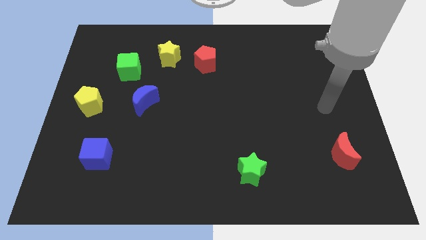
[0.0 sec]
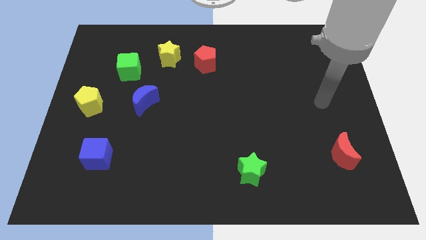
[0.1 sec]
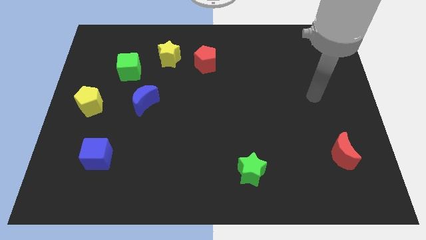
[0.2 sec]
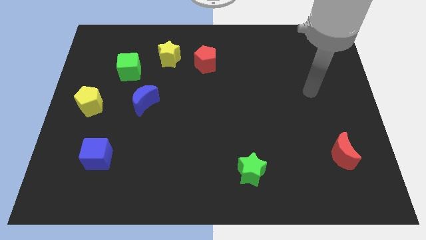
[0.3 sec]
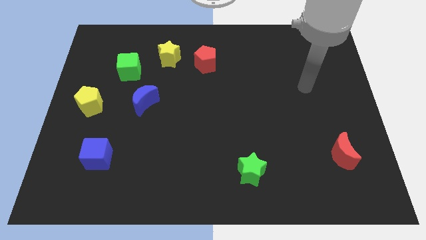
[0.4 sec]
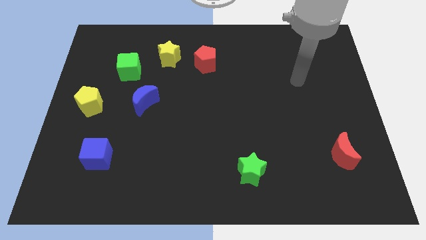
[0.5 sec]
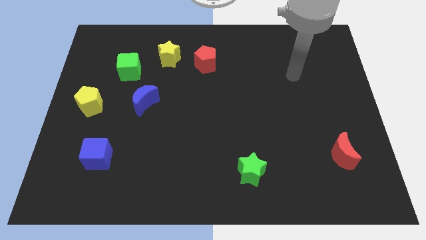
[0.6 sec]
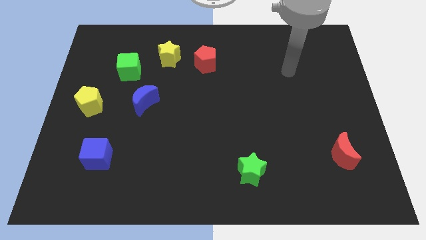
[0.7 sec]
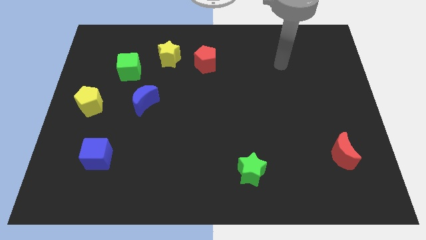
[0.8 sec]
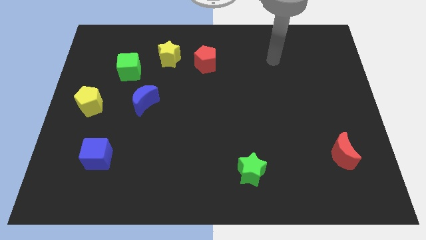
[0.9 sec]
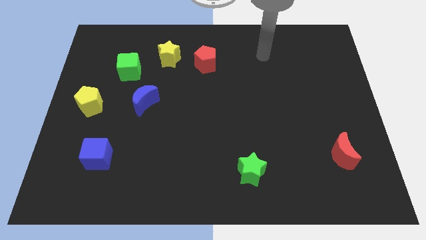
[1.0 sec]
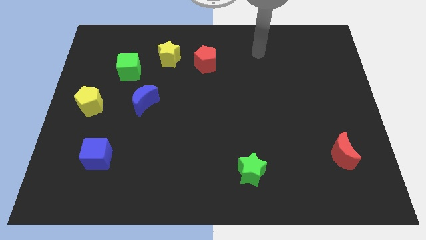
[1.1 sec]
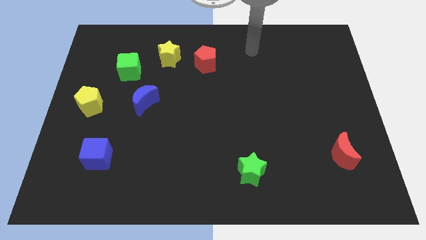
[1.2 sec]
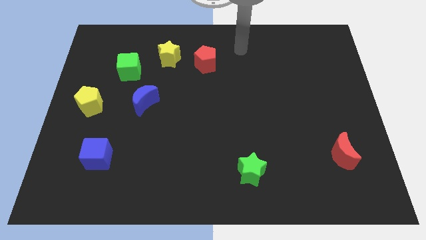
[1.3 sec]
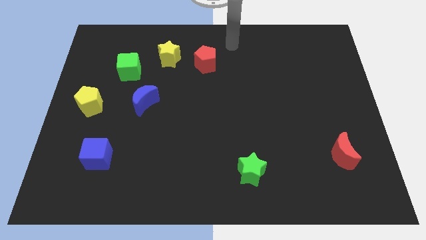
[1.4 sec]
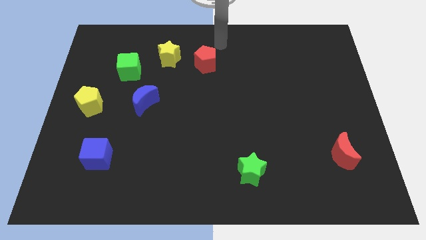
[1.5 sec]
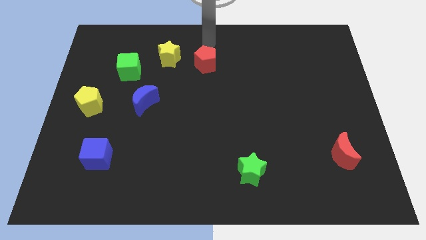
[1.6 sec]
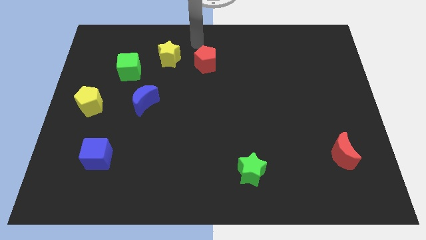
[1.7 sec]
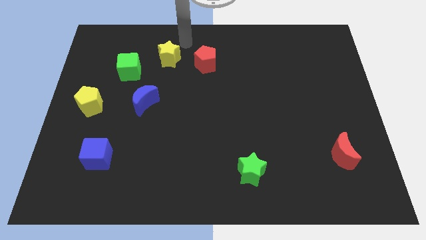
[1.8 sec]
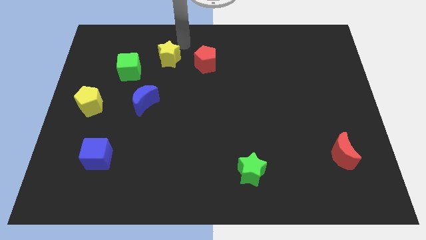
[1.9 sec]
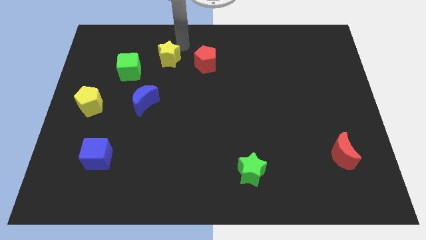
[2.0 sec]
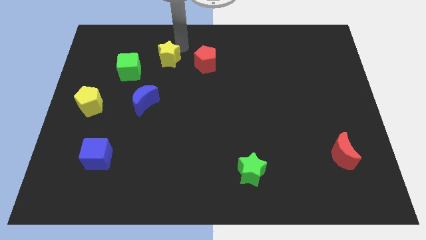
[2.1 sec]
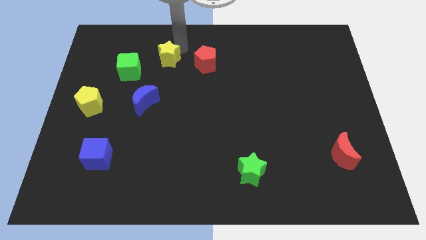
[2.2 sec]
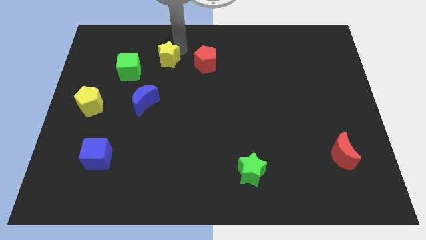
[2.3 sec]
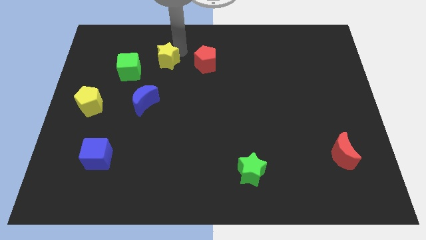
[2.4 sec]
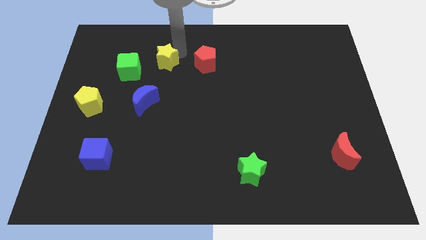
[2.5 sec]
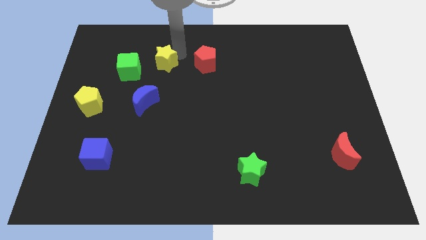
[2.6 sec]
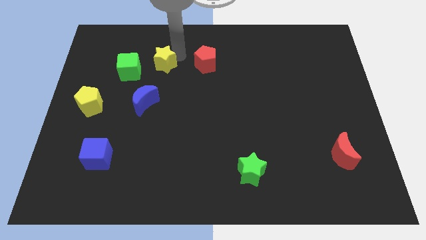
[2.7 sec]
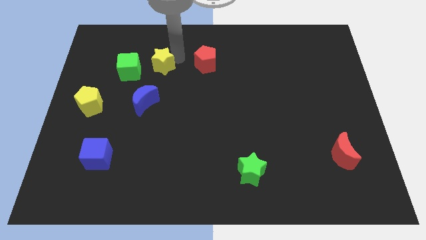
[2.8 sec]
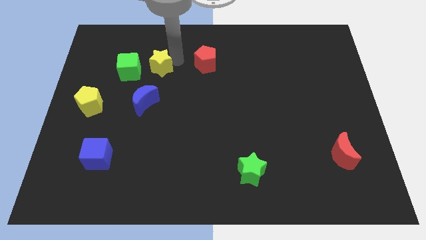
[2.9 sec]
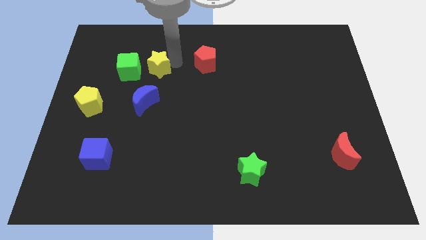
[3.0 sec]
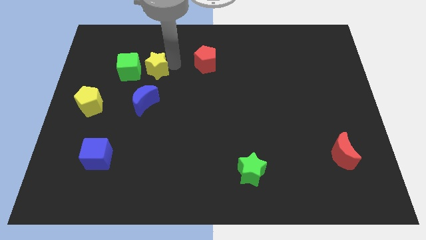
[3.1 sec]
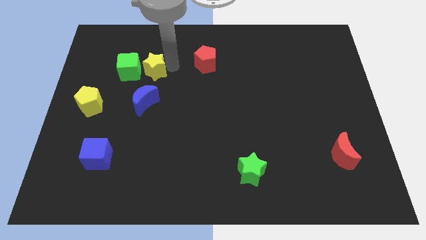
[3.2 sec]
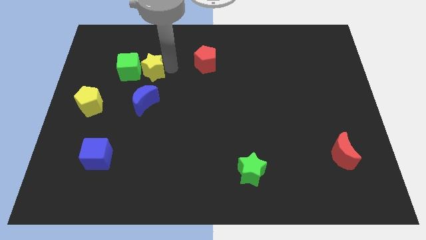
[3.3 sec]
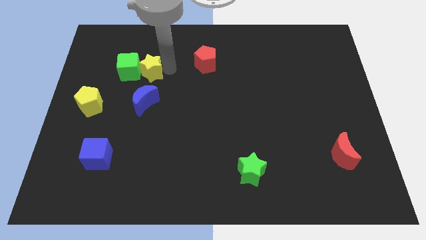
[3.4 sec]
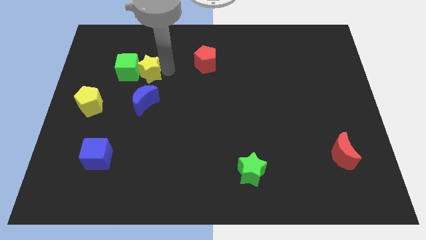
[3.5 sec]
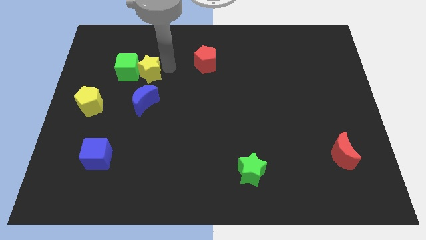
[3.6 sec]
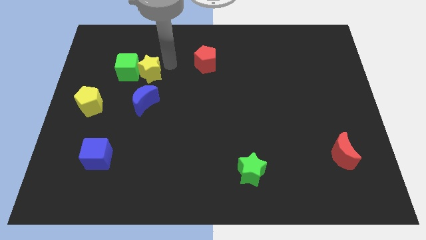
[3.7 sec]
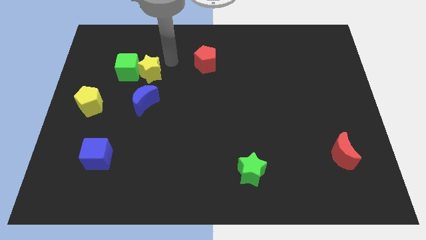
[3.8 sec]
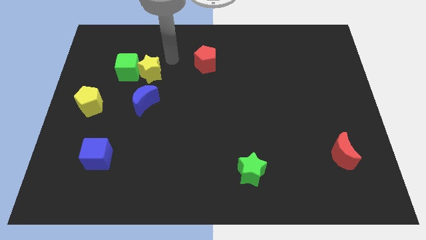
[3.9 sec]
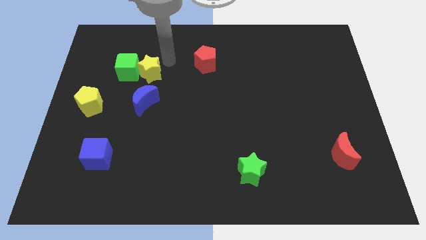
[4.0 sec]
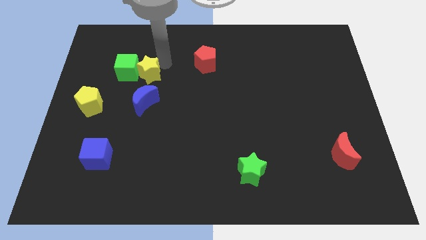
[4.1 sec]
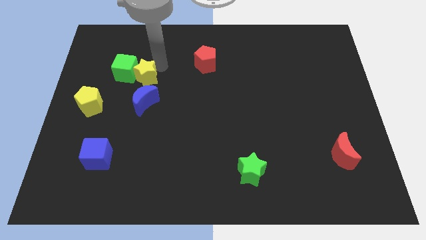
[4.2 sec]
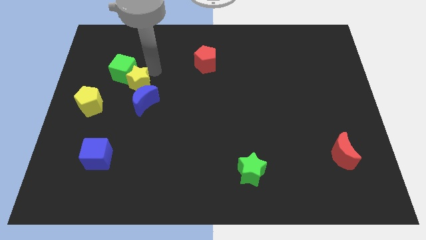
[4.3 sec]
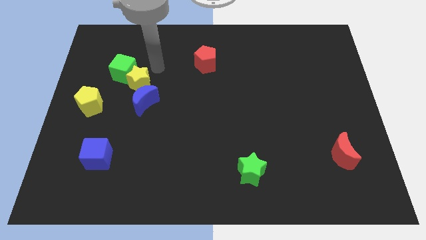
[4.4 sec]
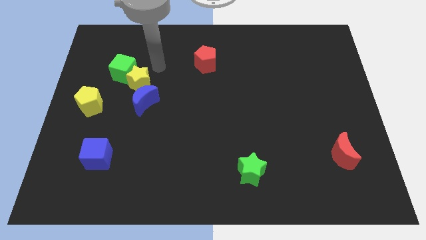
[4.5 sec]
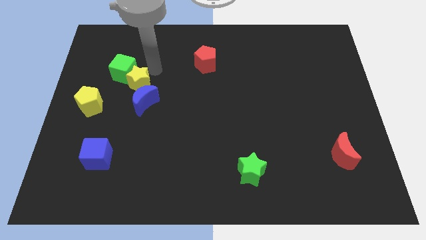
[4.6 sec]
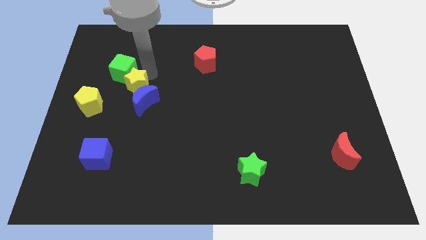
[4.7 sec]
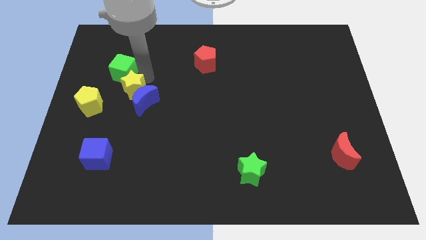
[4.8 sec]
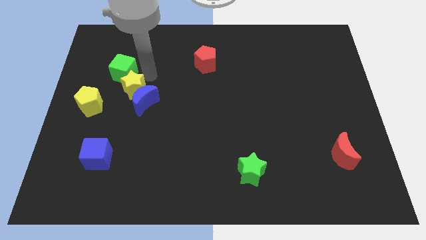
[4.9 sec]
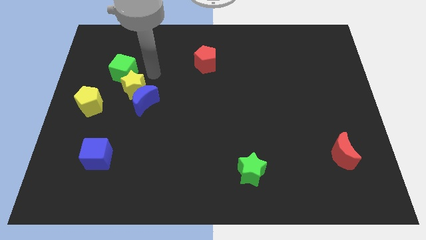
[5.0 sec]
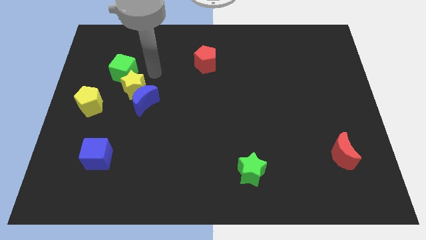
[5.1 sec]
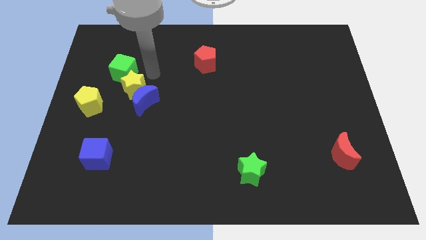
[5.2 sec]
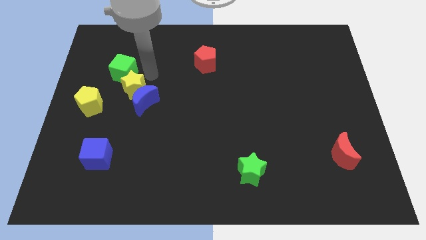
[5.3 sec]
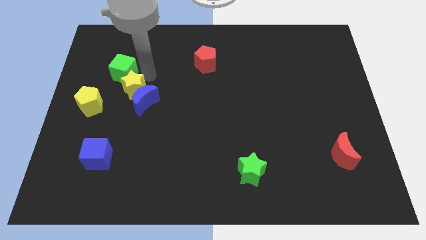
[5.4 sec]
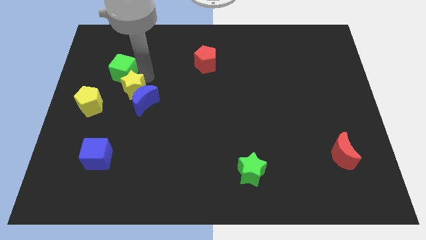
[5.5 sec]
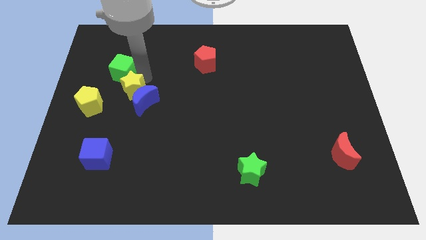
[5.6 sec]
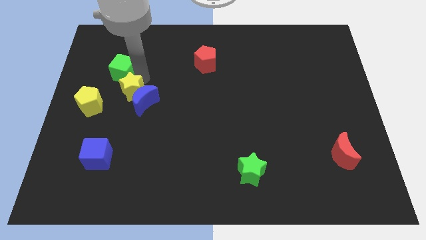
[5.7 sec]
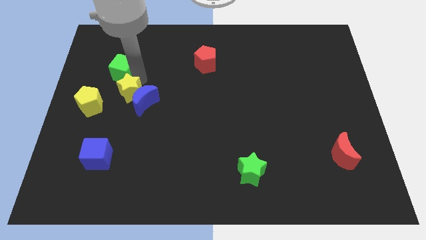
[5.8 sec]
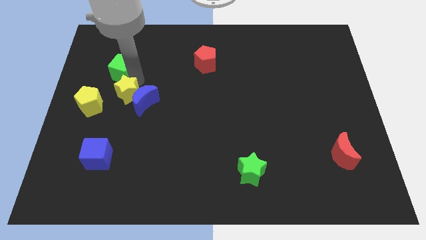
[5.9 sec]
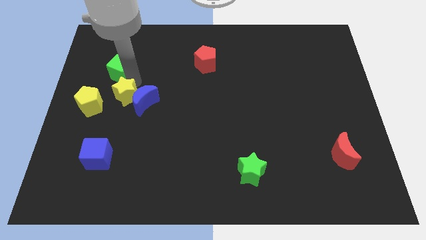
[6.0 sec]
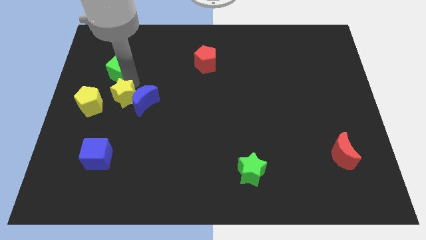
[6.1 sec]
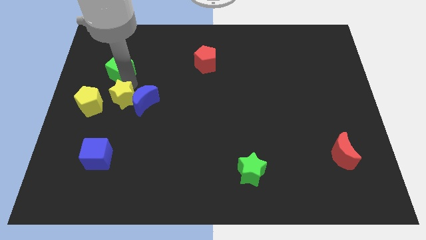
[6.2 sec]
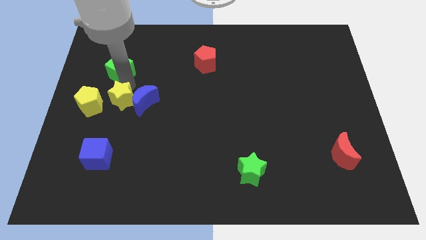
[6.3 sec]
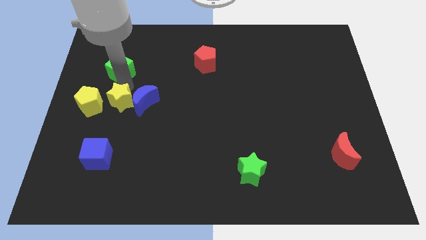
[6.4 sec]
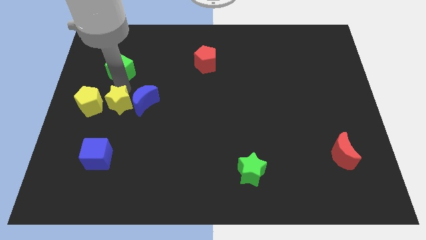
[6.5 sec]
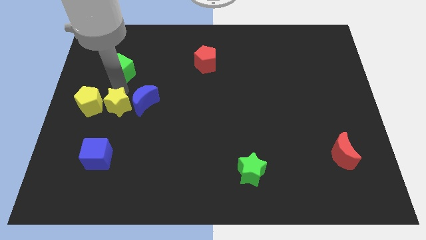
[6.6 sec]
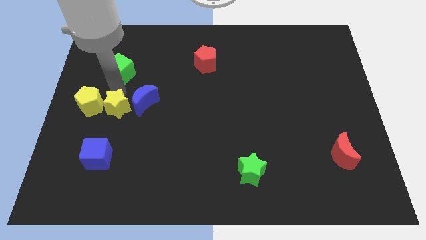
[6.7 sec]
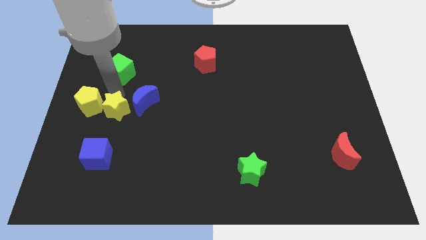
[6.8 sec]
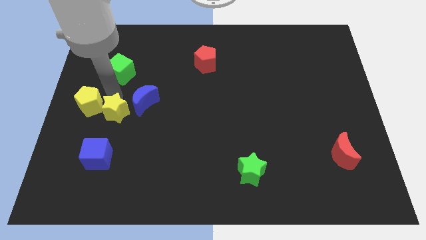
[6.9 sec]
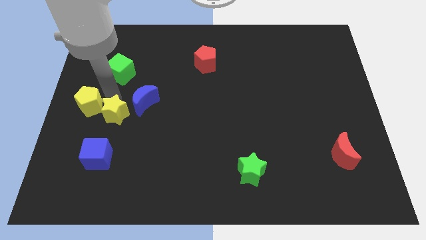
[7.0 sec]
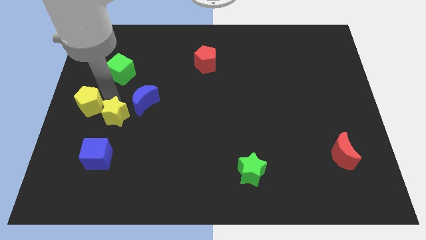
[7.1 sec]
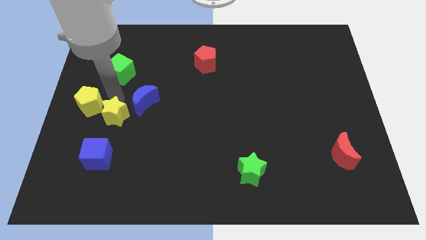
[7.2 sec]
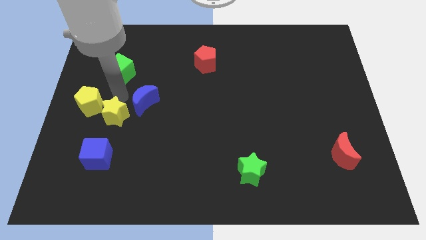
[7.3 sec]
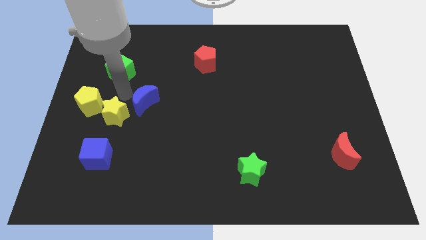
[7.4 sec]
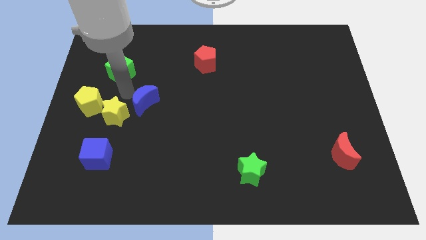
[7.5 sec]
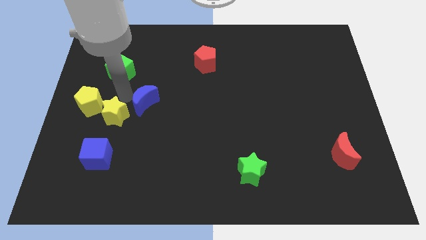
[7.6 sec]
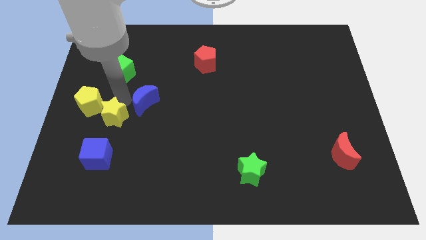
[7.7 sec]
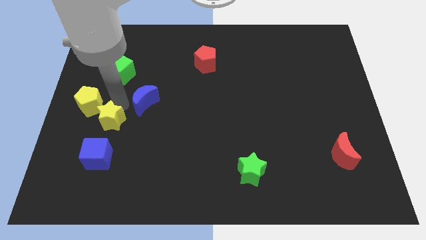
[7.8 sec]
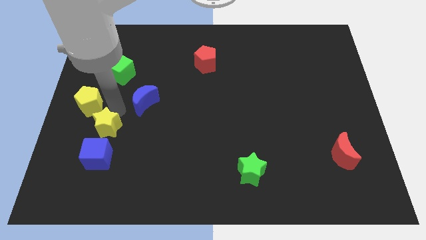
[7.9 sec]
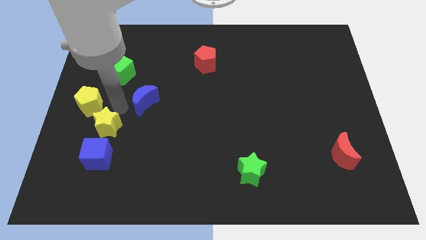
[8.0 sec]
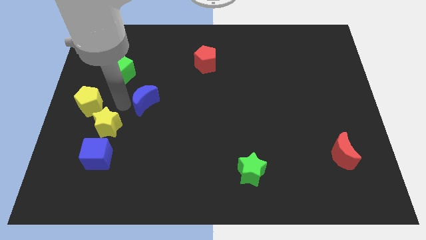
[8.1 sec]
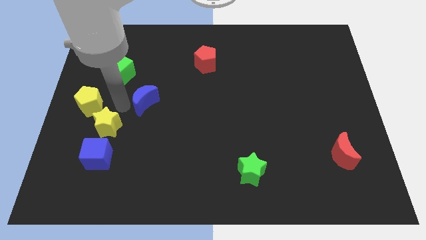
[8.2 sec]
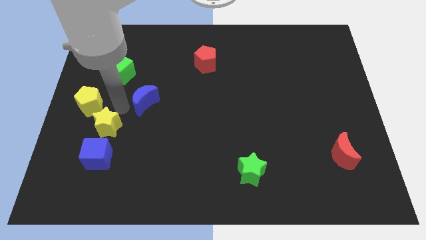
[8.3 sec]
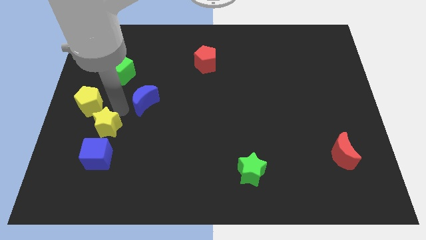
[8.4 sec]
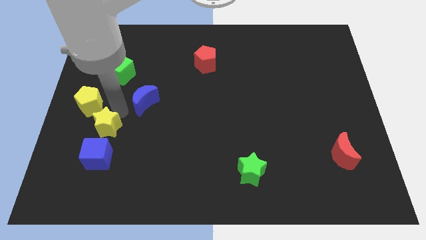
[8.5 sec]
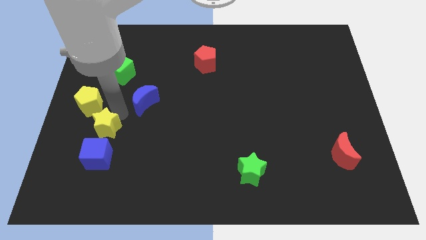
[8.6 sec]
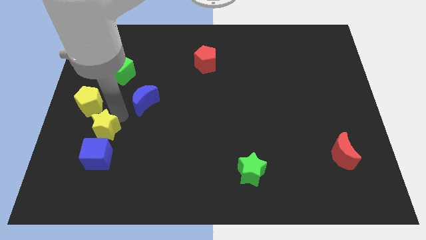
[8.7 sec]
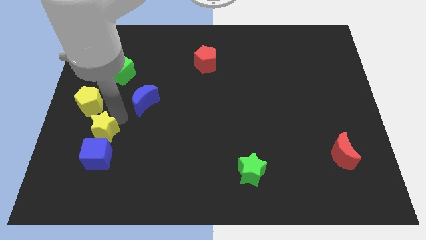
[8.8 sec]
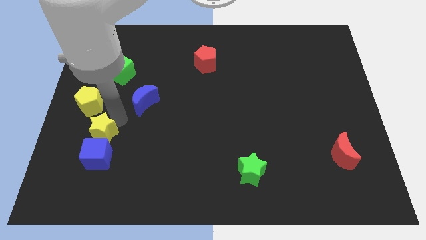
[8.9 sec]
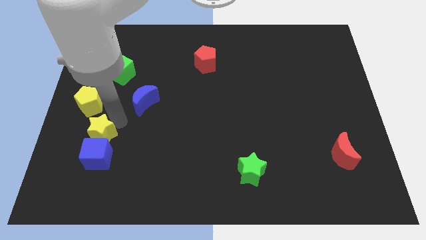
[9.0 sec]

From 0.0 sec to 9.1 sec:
put the yellow star next to the blue cube
